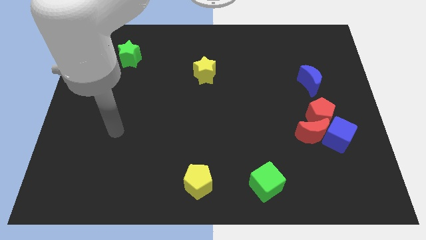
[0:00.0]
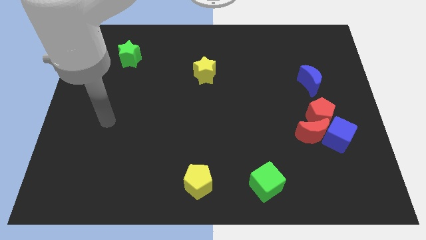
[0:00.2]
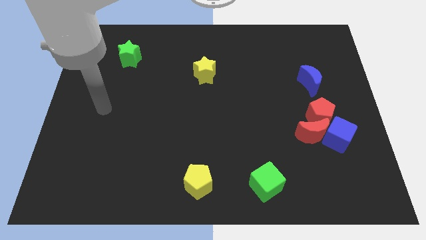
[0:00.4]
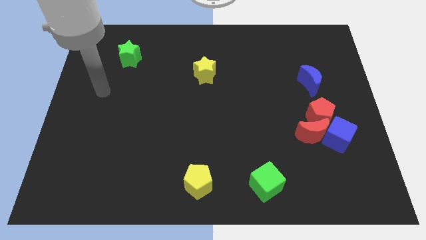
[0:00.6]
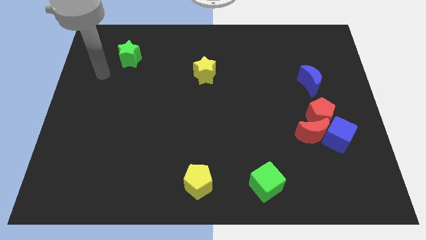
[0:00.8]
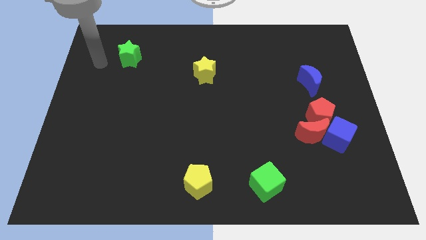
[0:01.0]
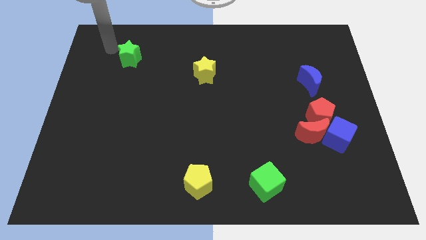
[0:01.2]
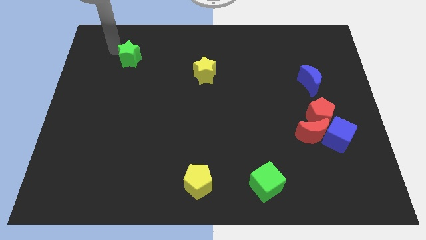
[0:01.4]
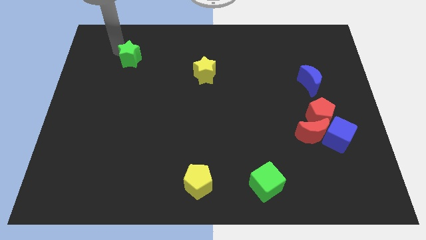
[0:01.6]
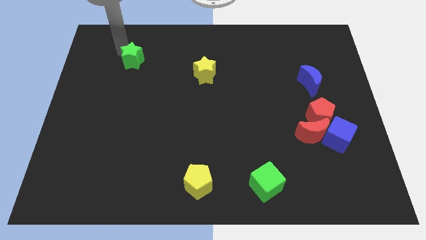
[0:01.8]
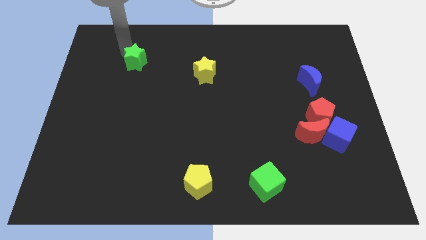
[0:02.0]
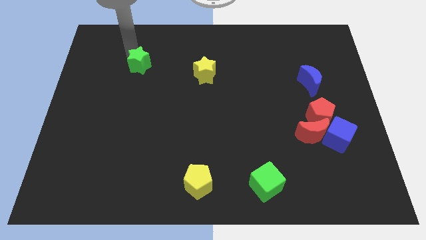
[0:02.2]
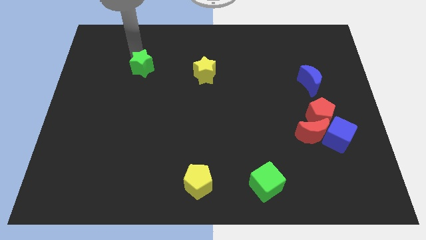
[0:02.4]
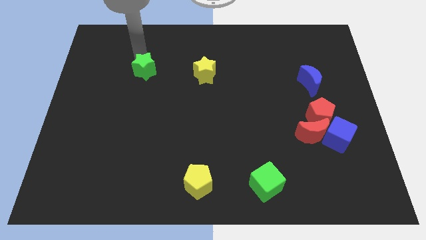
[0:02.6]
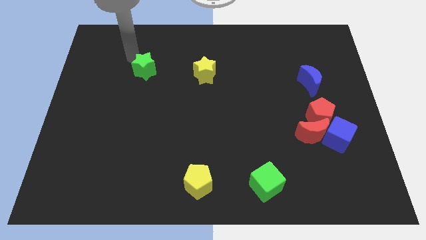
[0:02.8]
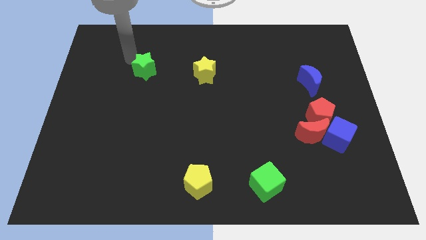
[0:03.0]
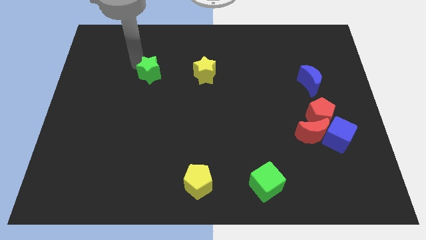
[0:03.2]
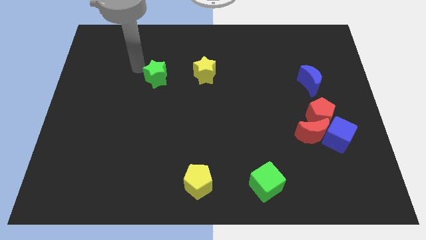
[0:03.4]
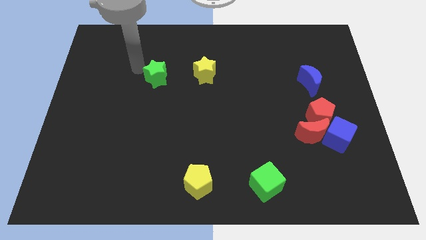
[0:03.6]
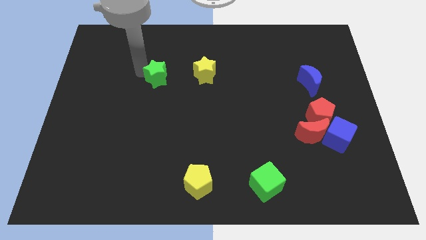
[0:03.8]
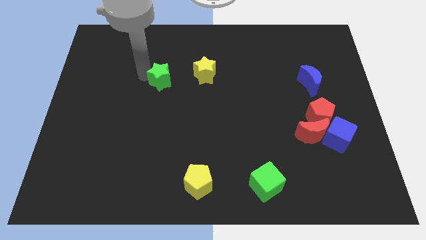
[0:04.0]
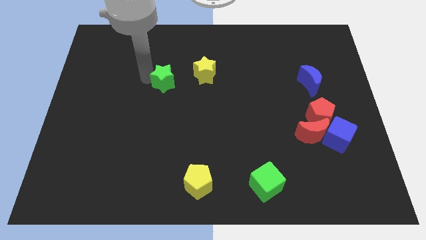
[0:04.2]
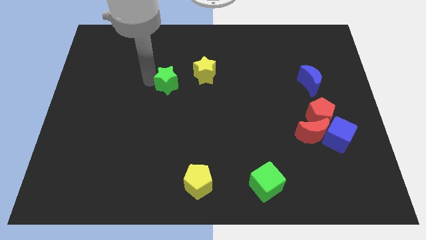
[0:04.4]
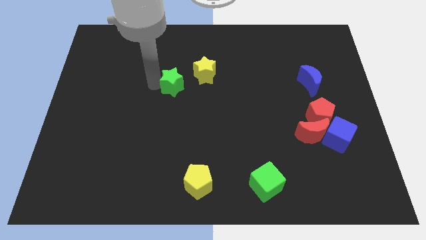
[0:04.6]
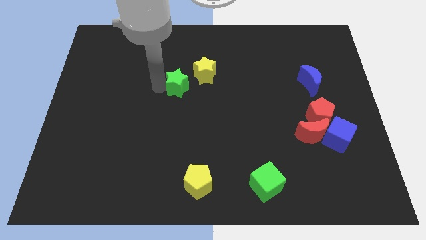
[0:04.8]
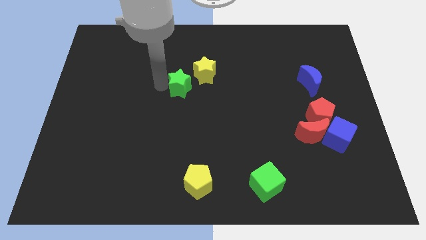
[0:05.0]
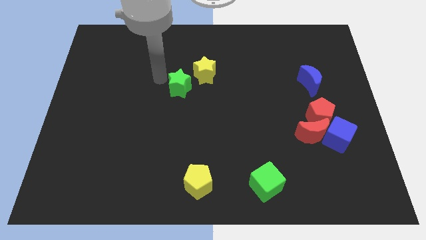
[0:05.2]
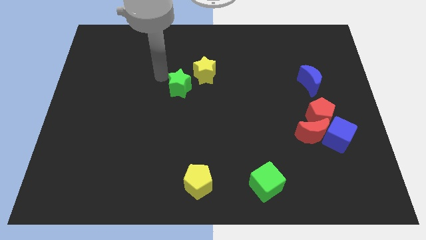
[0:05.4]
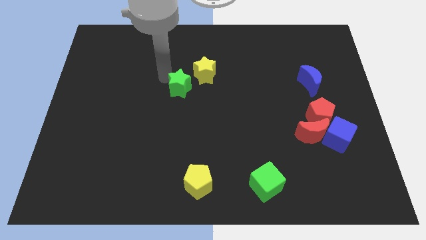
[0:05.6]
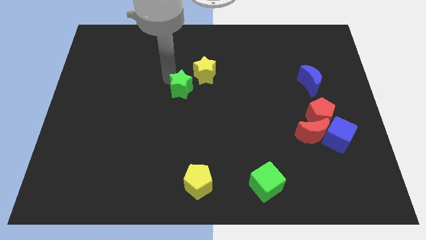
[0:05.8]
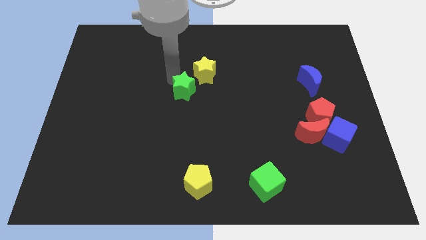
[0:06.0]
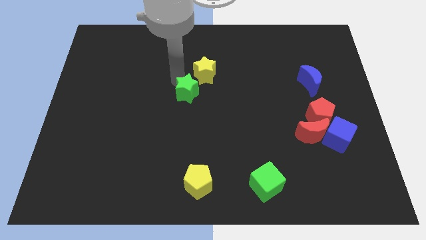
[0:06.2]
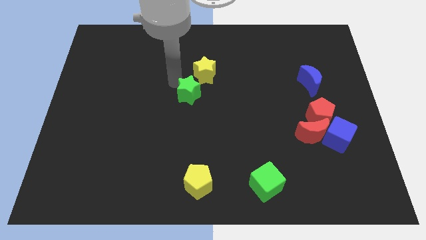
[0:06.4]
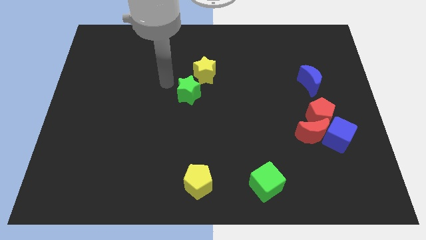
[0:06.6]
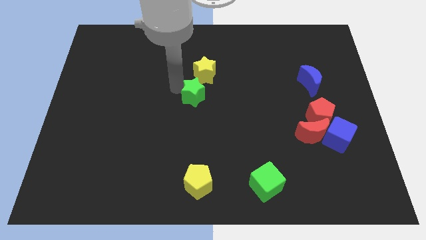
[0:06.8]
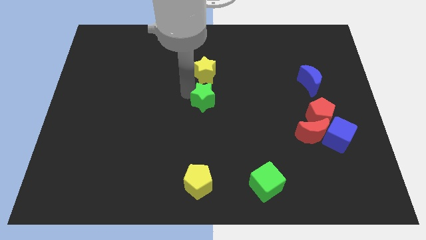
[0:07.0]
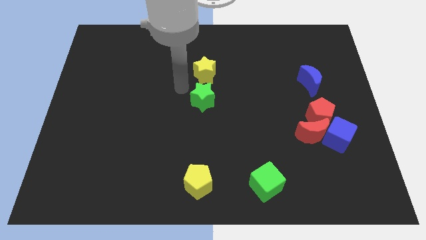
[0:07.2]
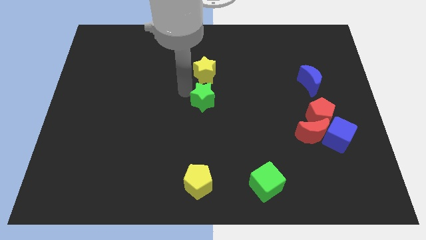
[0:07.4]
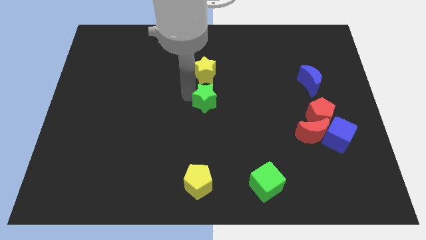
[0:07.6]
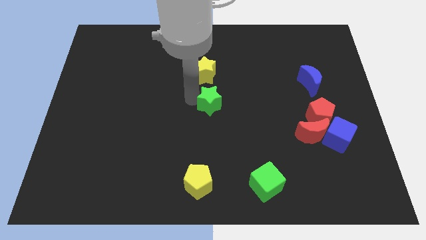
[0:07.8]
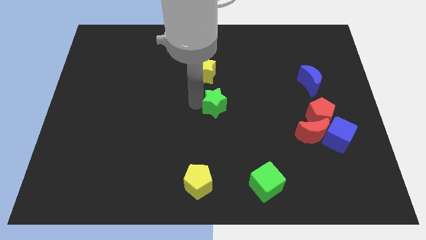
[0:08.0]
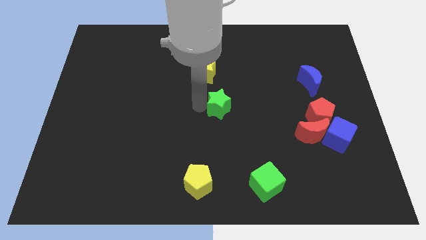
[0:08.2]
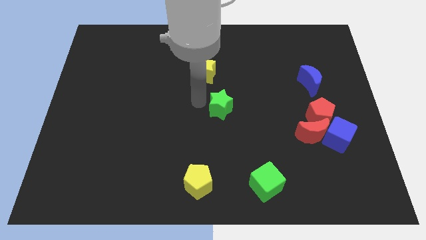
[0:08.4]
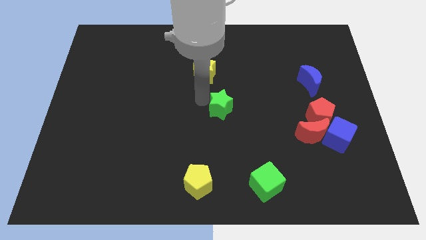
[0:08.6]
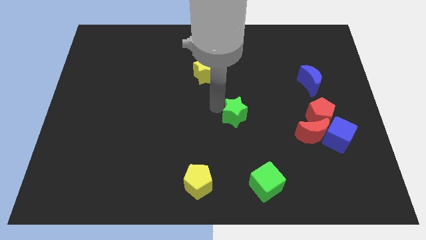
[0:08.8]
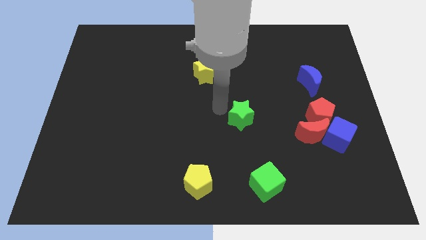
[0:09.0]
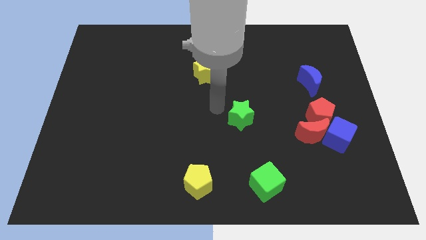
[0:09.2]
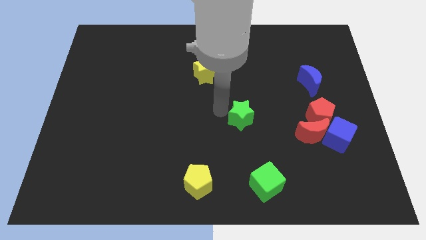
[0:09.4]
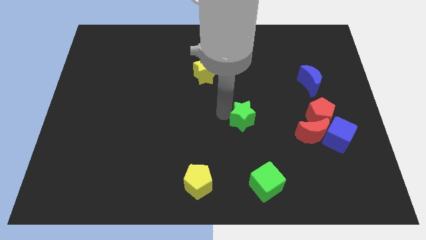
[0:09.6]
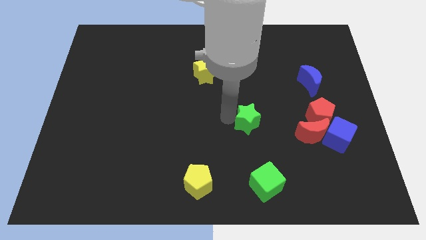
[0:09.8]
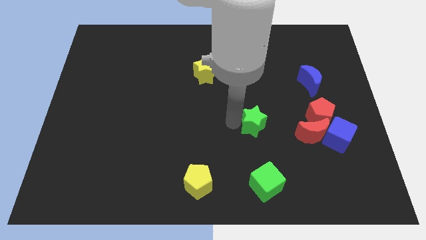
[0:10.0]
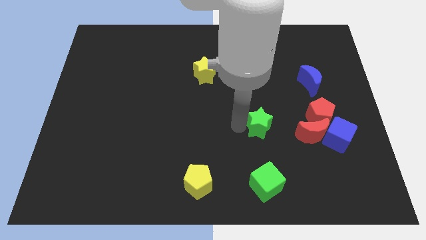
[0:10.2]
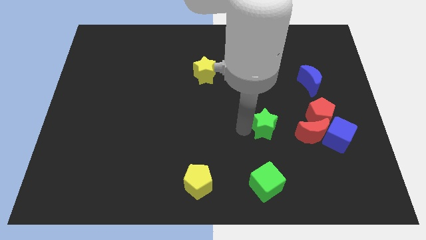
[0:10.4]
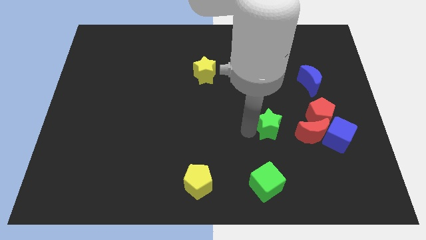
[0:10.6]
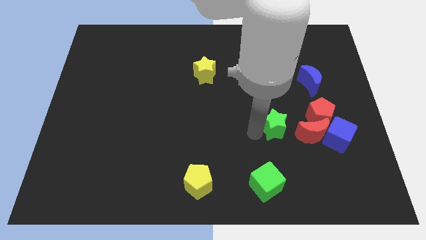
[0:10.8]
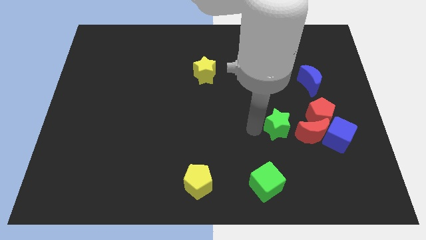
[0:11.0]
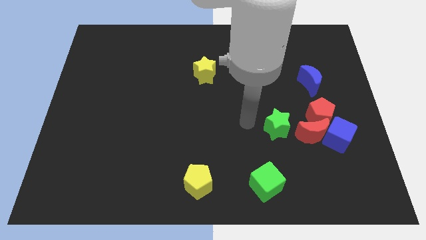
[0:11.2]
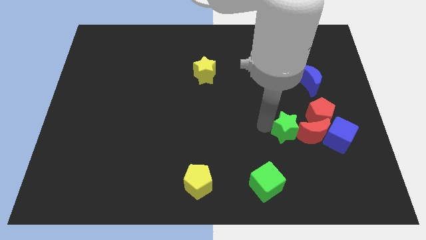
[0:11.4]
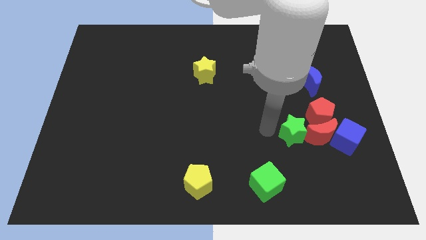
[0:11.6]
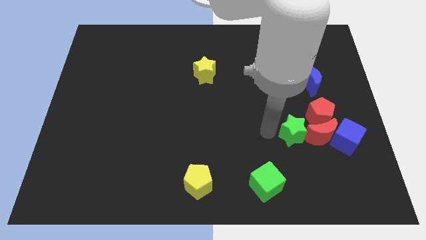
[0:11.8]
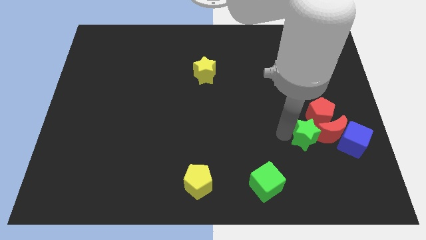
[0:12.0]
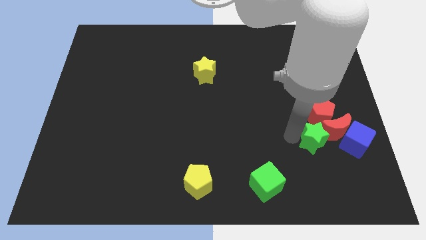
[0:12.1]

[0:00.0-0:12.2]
put the green star next to the red moon
